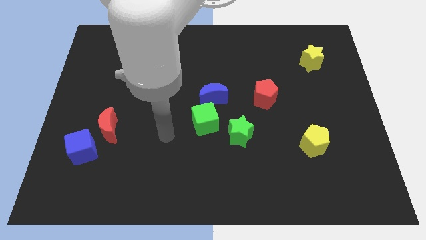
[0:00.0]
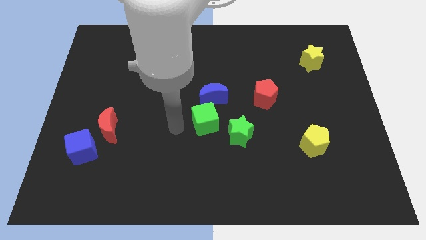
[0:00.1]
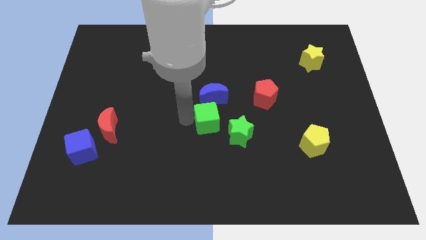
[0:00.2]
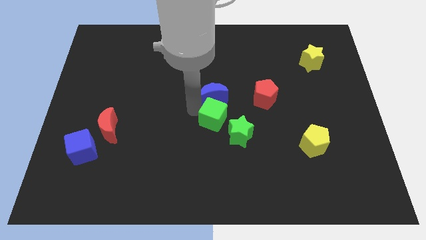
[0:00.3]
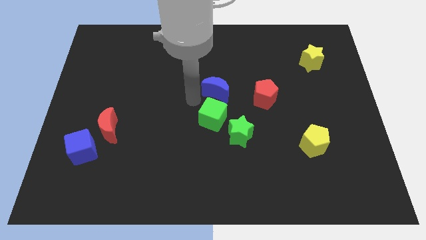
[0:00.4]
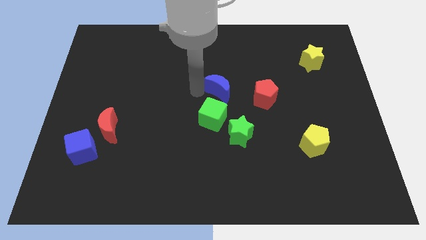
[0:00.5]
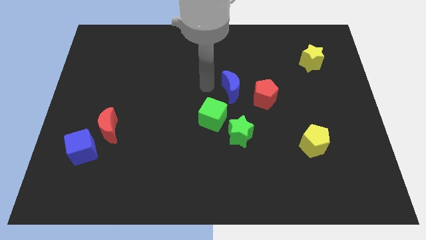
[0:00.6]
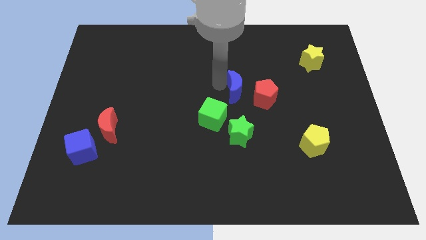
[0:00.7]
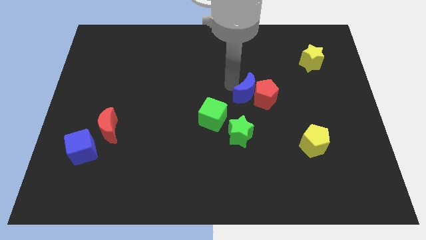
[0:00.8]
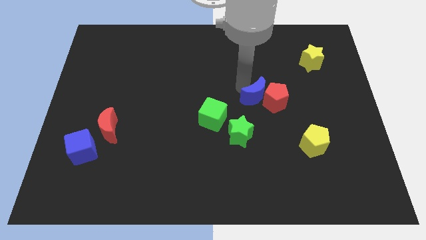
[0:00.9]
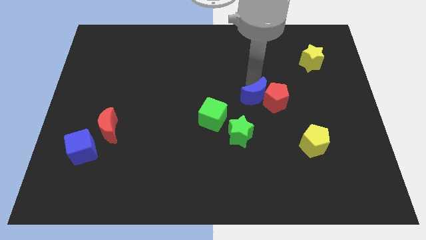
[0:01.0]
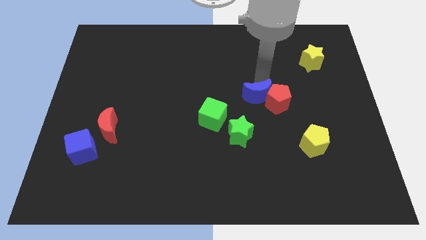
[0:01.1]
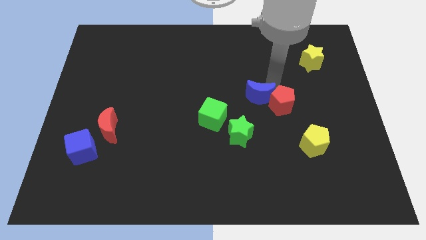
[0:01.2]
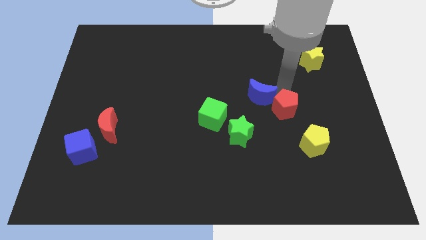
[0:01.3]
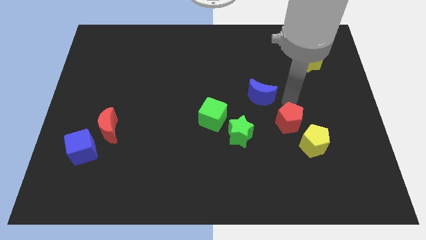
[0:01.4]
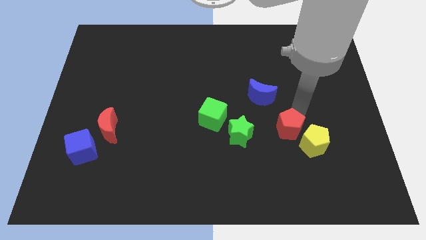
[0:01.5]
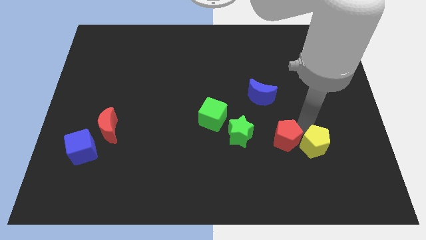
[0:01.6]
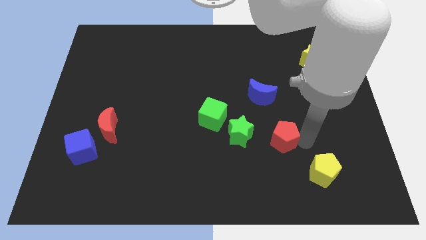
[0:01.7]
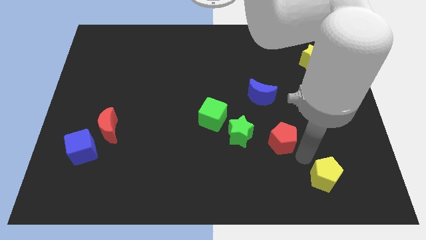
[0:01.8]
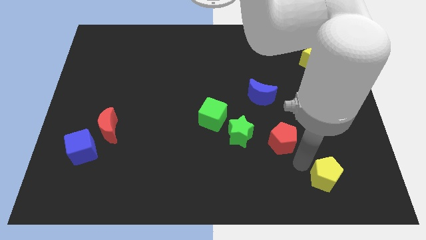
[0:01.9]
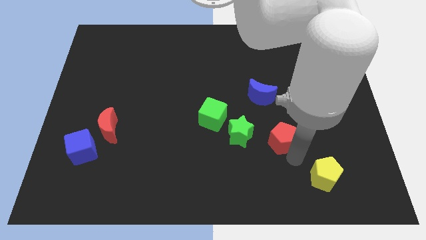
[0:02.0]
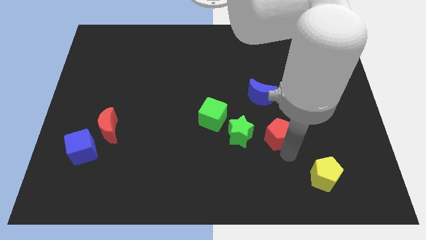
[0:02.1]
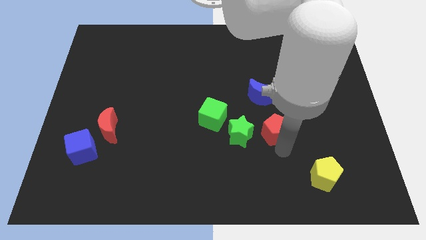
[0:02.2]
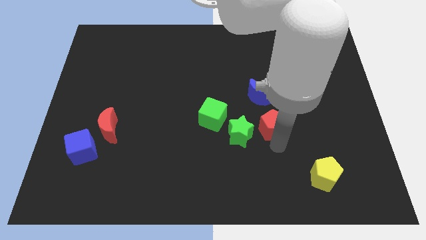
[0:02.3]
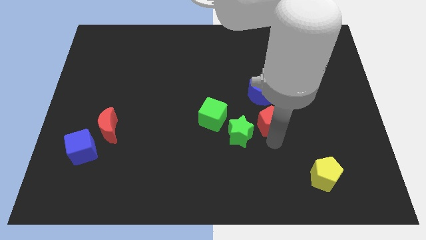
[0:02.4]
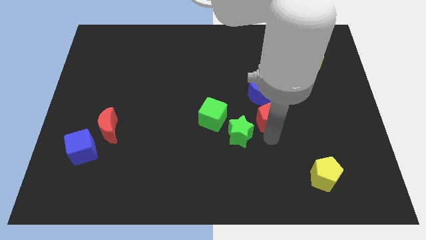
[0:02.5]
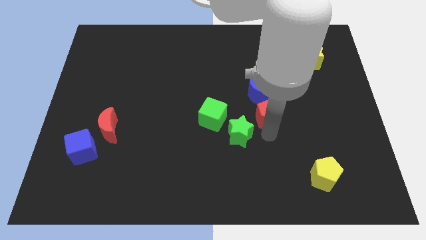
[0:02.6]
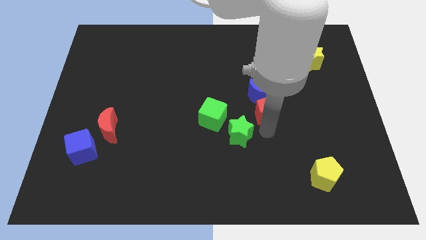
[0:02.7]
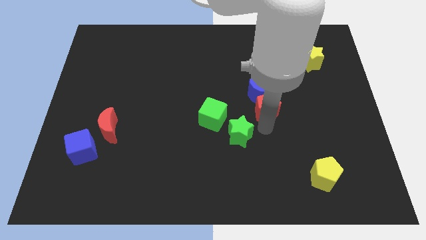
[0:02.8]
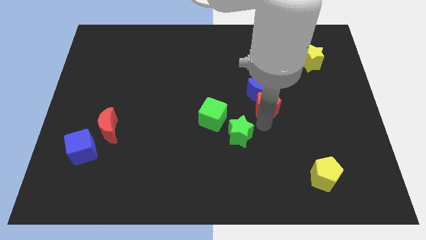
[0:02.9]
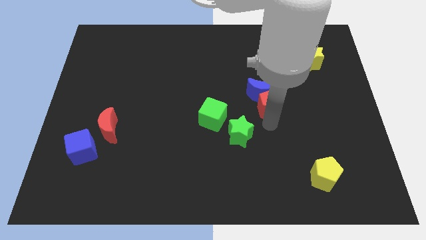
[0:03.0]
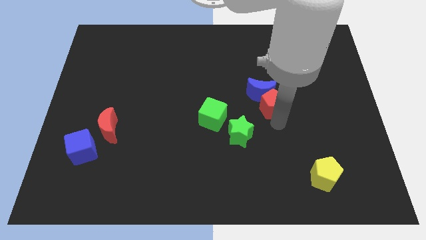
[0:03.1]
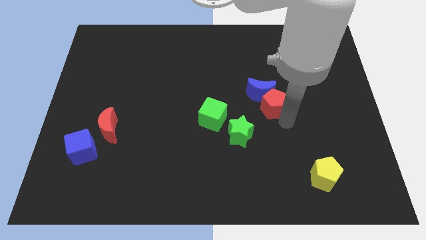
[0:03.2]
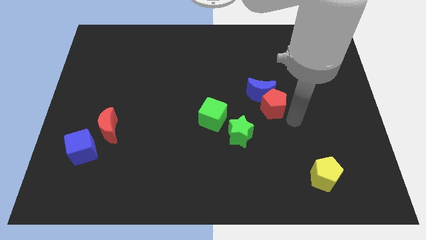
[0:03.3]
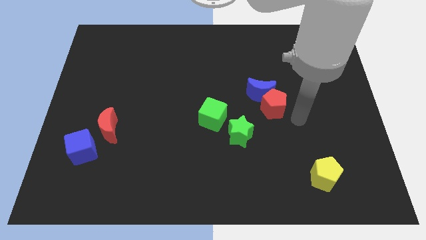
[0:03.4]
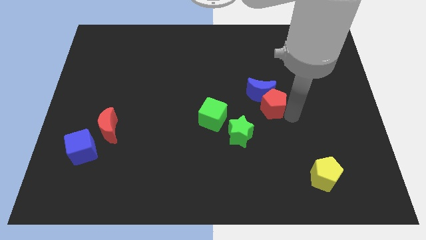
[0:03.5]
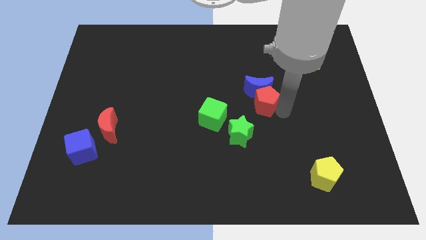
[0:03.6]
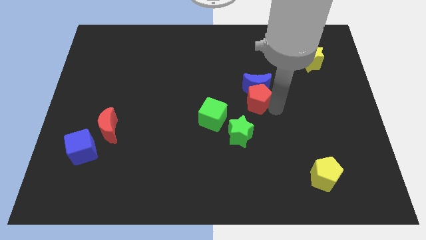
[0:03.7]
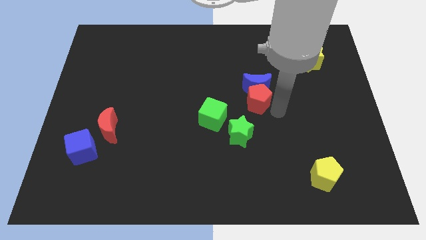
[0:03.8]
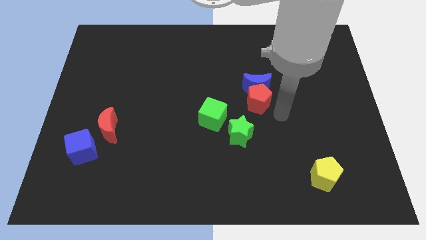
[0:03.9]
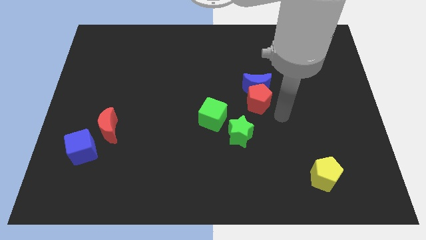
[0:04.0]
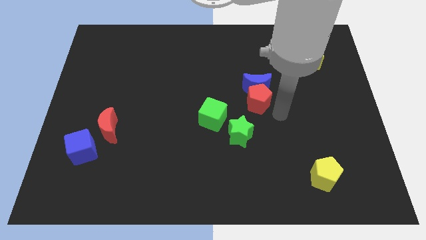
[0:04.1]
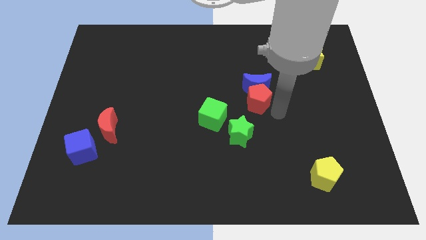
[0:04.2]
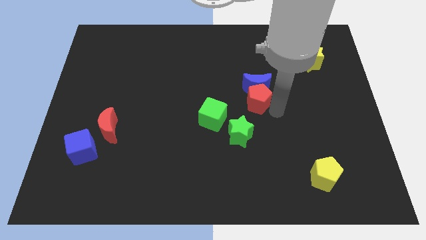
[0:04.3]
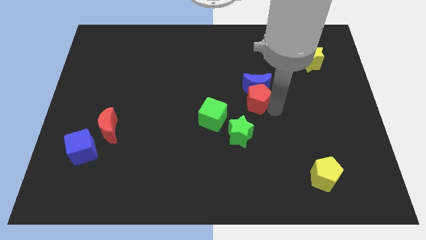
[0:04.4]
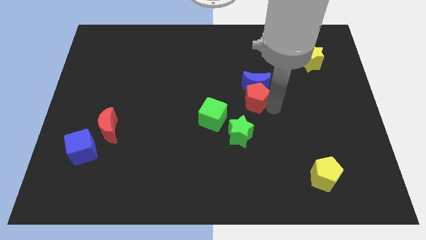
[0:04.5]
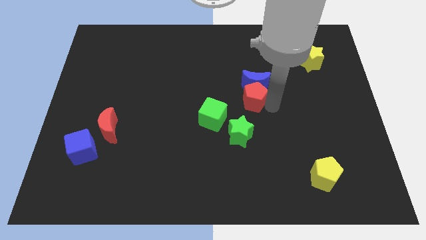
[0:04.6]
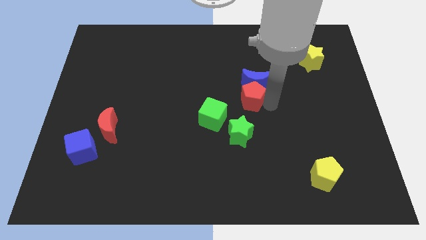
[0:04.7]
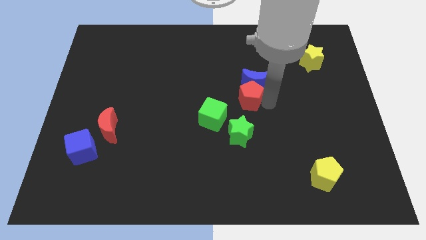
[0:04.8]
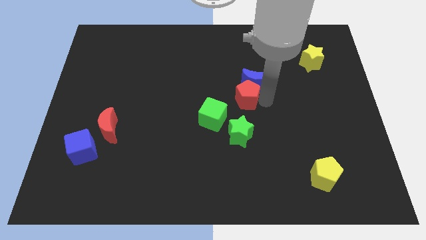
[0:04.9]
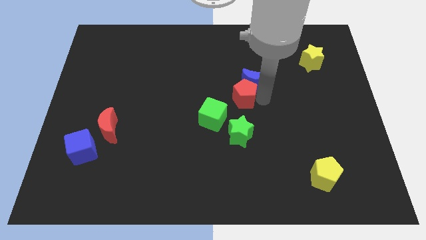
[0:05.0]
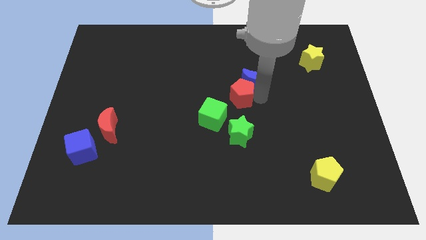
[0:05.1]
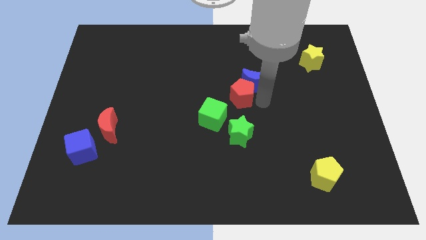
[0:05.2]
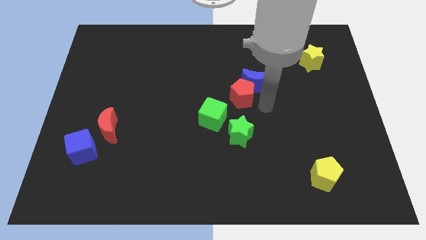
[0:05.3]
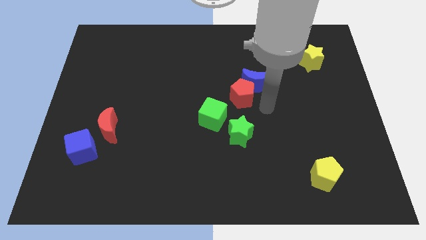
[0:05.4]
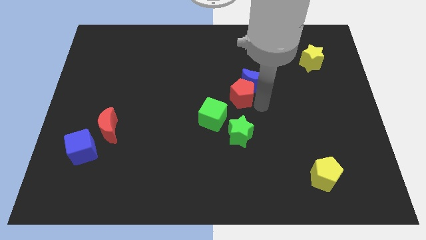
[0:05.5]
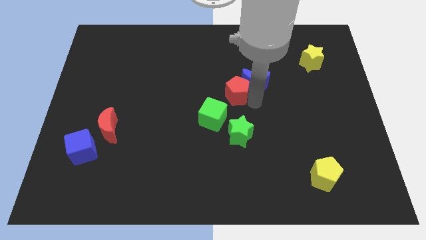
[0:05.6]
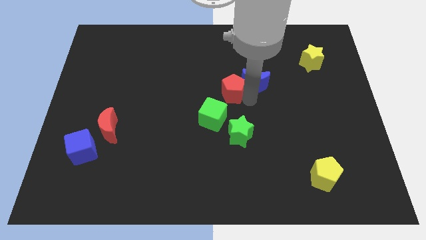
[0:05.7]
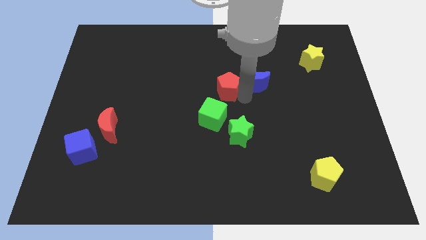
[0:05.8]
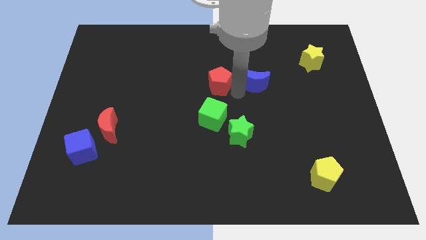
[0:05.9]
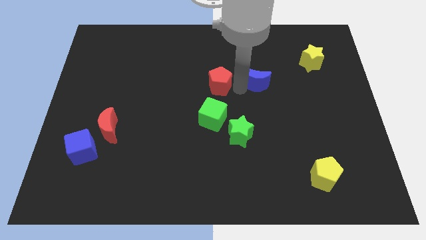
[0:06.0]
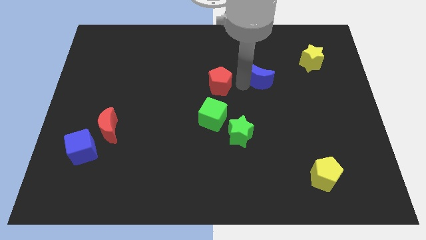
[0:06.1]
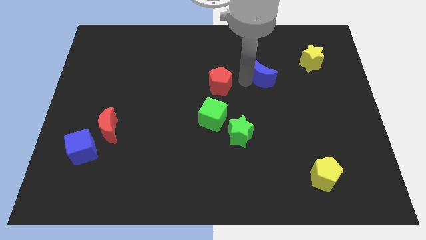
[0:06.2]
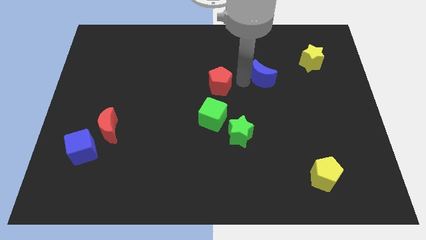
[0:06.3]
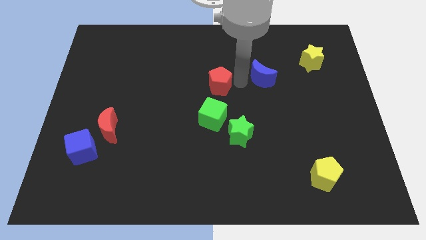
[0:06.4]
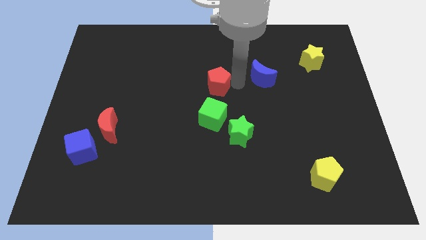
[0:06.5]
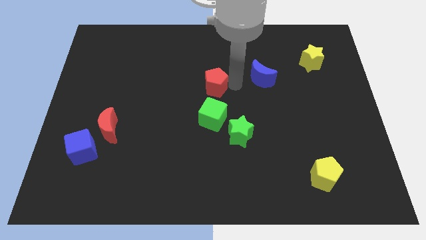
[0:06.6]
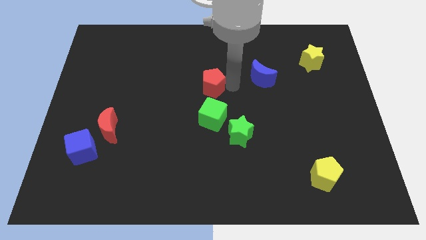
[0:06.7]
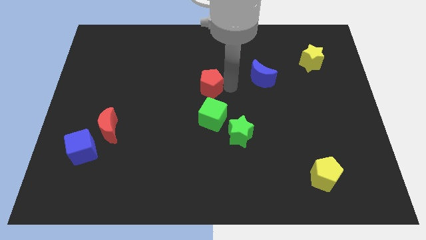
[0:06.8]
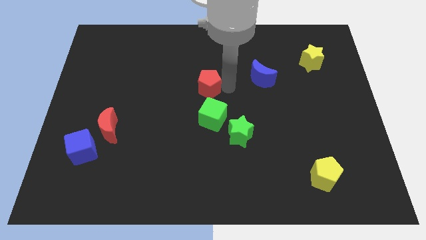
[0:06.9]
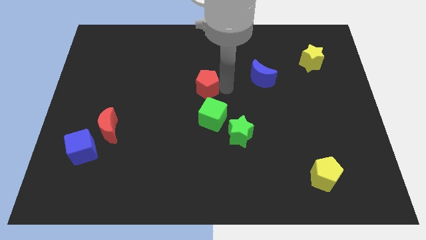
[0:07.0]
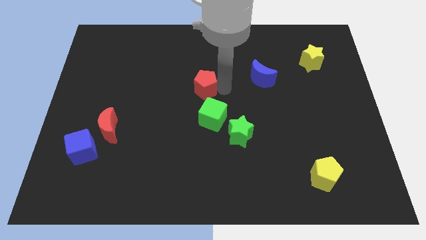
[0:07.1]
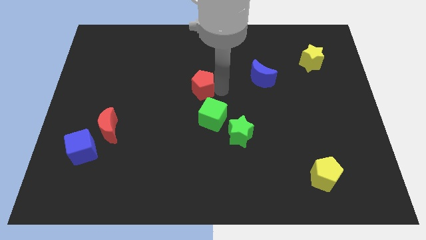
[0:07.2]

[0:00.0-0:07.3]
put the red pentagon to the top left side of the green cube

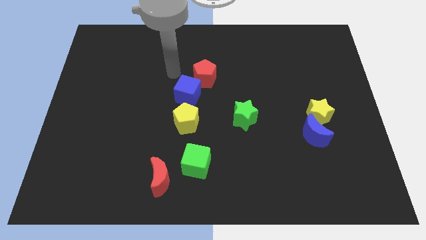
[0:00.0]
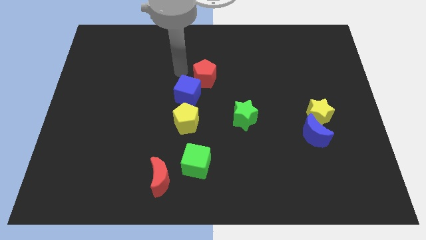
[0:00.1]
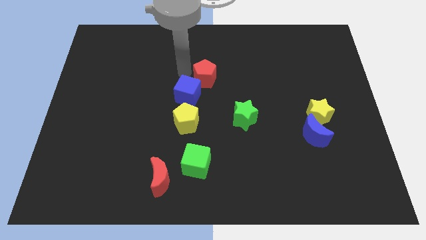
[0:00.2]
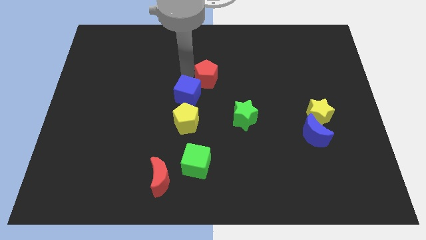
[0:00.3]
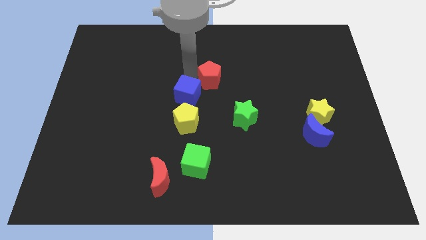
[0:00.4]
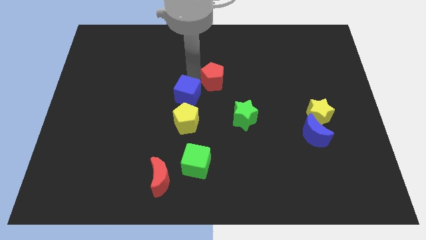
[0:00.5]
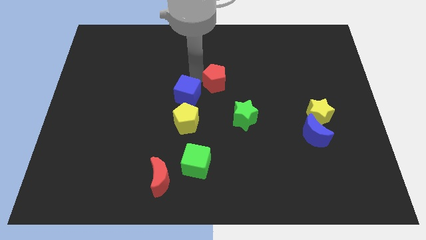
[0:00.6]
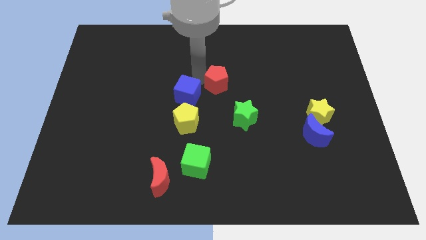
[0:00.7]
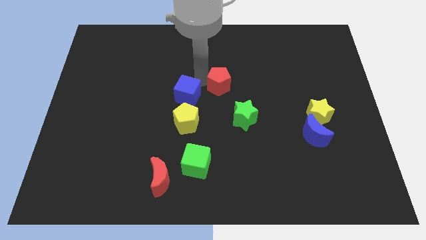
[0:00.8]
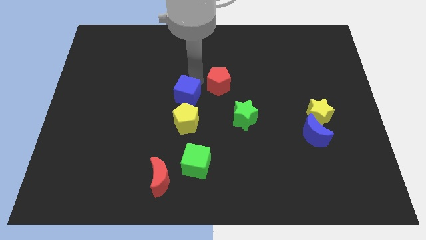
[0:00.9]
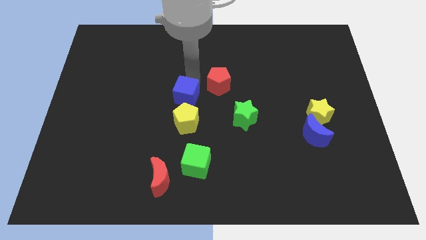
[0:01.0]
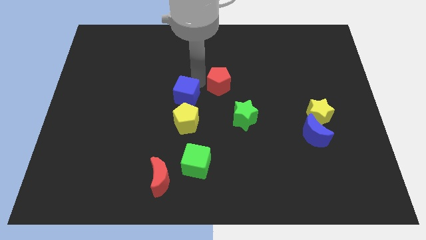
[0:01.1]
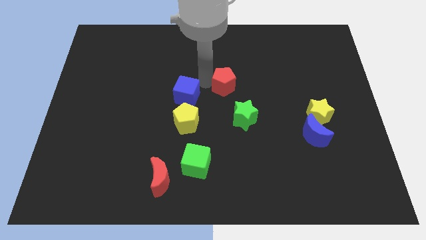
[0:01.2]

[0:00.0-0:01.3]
put the red pentagon to the top side of the green star
